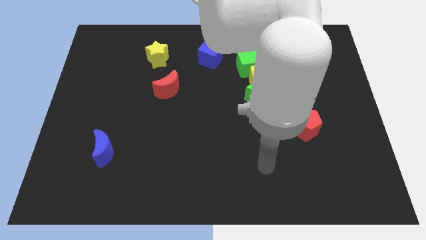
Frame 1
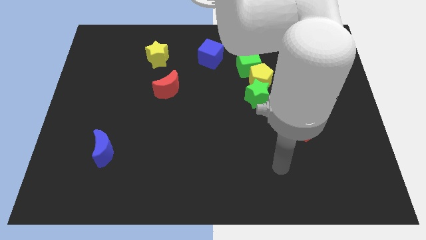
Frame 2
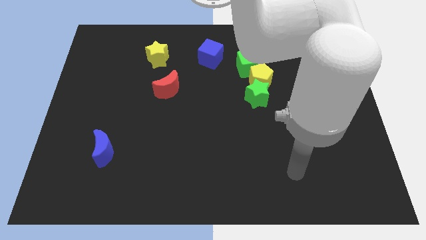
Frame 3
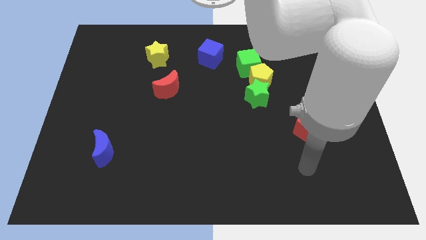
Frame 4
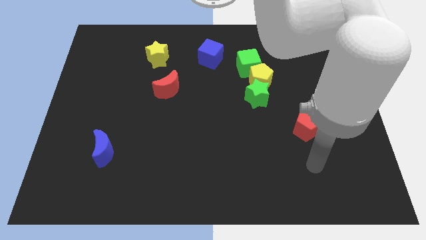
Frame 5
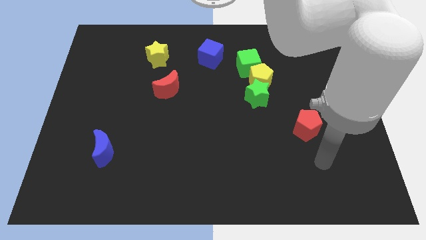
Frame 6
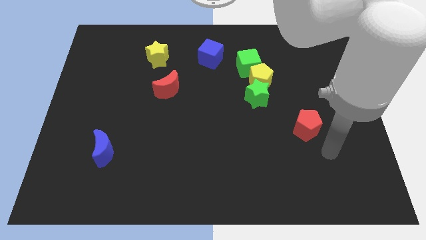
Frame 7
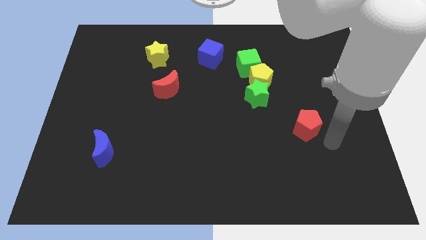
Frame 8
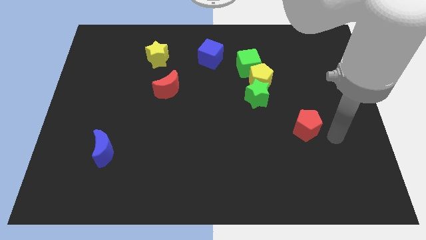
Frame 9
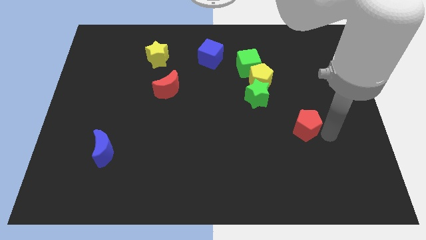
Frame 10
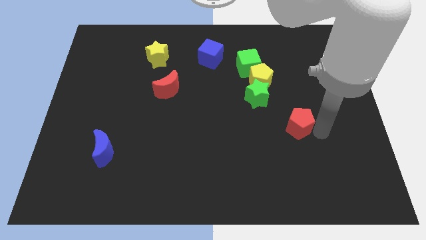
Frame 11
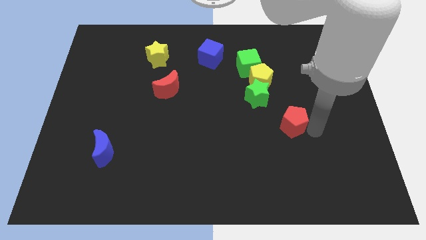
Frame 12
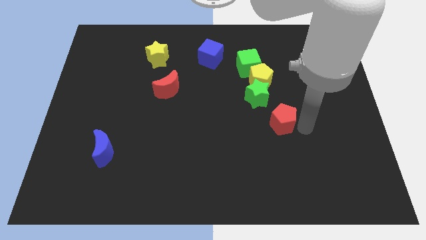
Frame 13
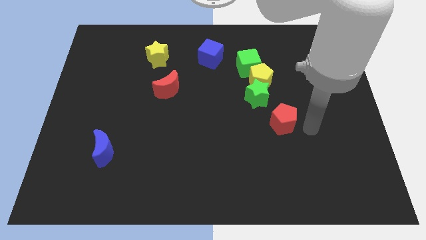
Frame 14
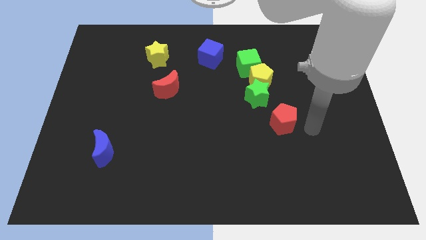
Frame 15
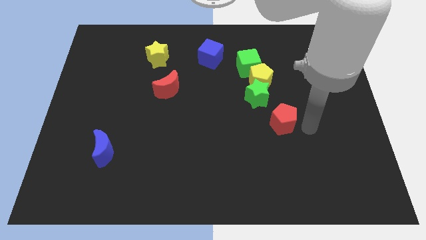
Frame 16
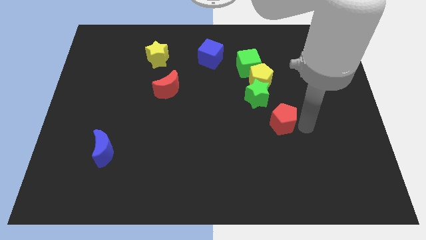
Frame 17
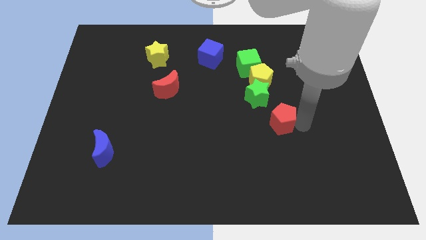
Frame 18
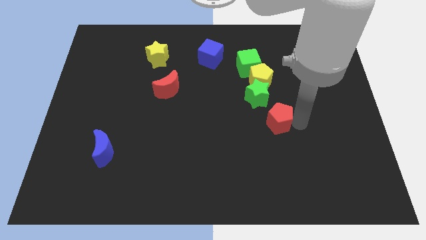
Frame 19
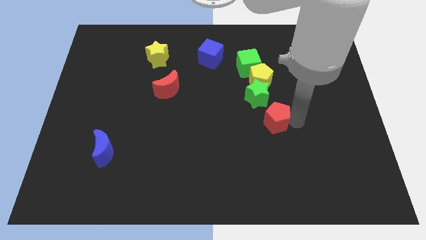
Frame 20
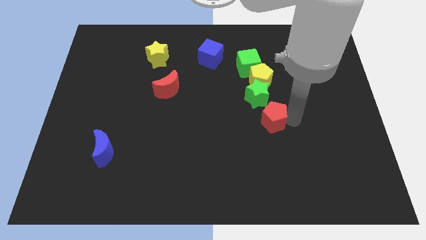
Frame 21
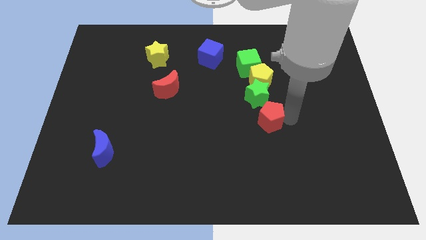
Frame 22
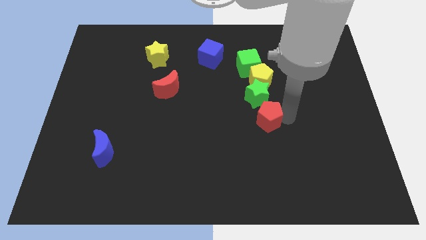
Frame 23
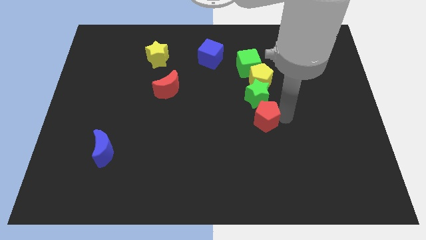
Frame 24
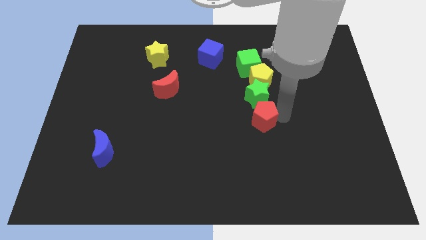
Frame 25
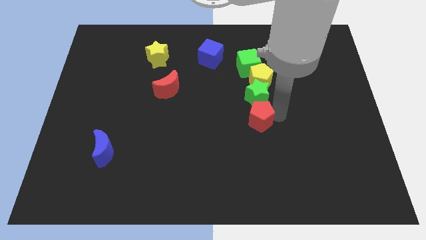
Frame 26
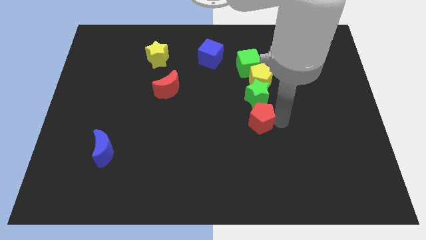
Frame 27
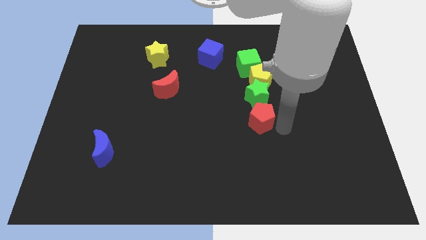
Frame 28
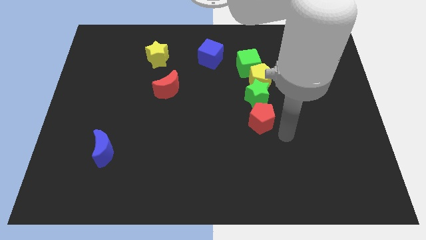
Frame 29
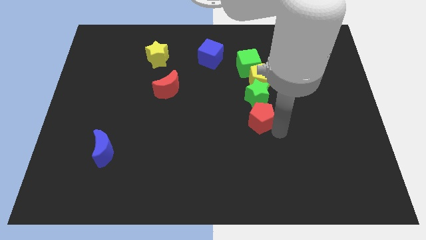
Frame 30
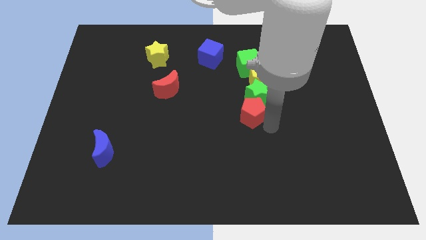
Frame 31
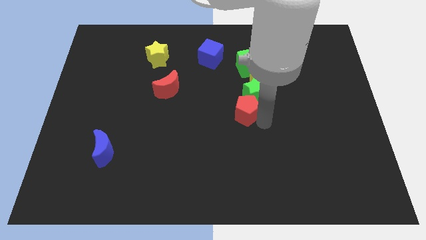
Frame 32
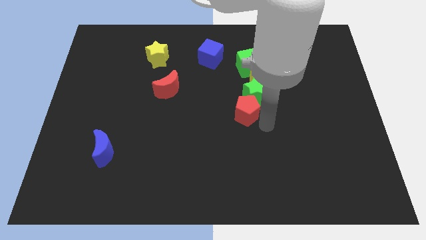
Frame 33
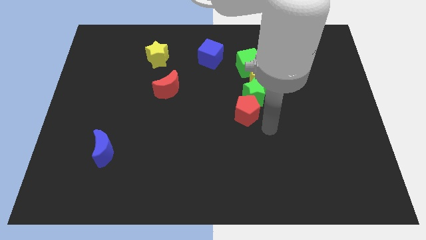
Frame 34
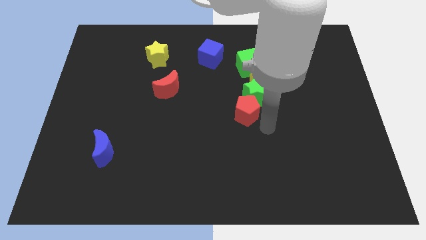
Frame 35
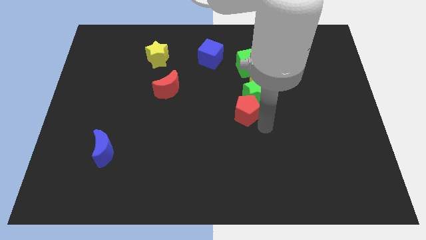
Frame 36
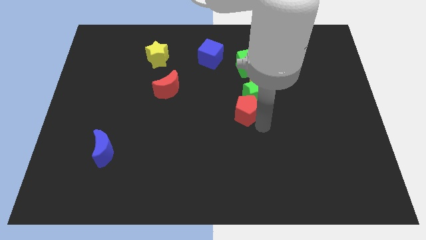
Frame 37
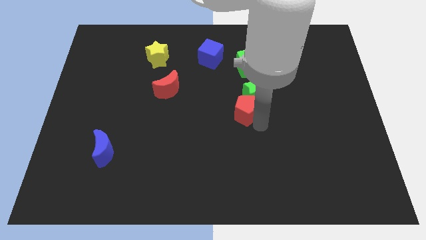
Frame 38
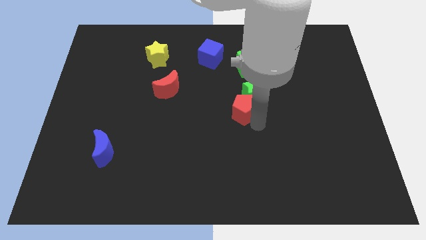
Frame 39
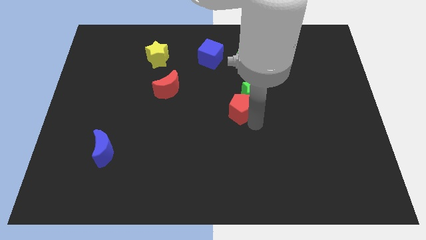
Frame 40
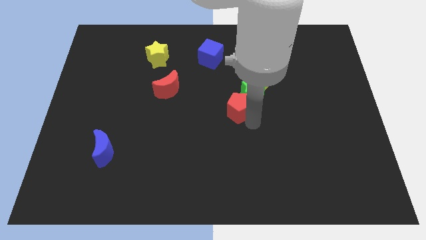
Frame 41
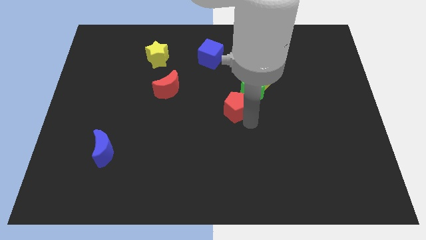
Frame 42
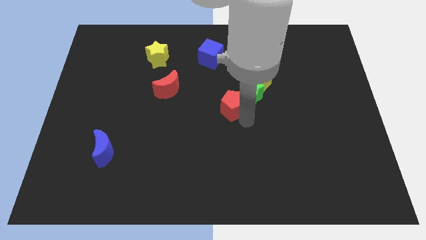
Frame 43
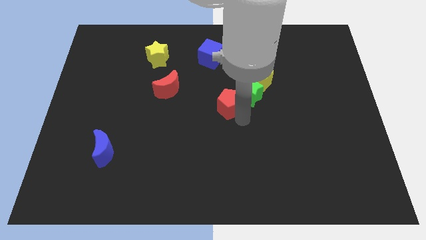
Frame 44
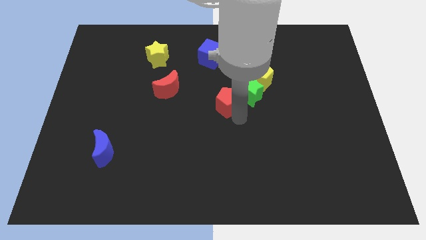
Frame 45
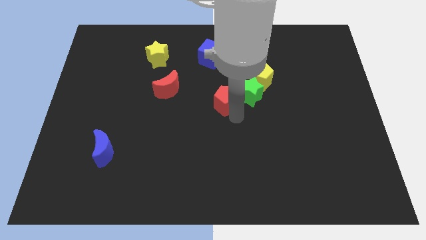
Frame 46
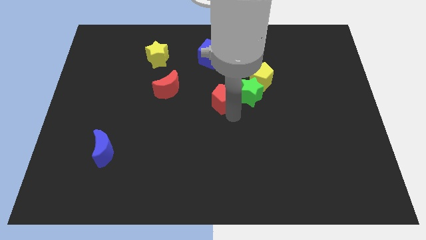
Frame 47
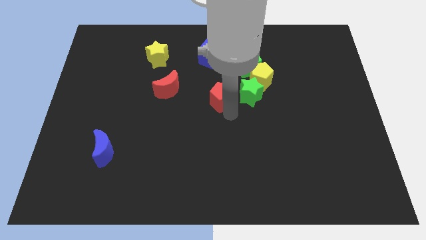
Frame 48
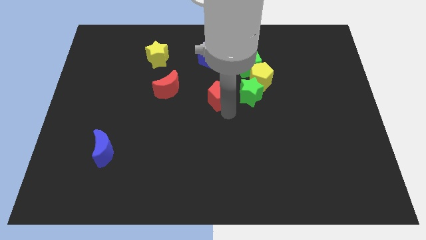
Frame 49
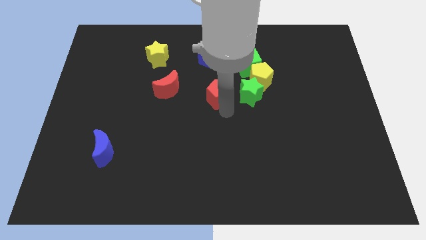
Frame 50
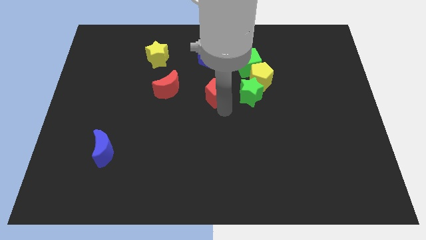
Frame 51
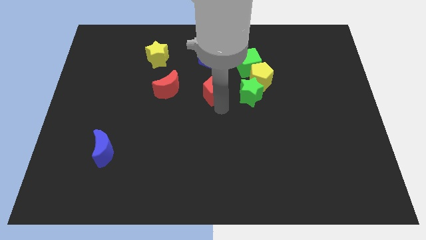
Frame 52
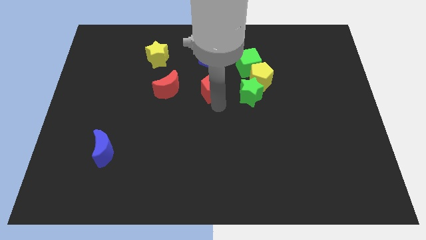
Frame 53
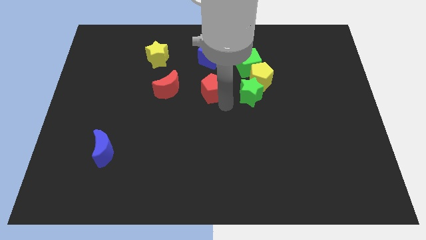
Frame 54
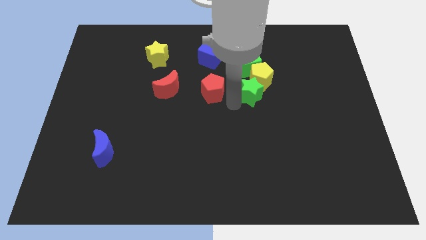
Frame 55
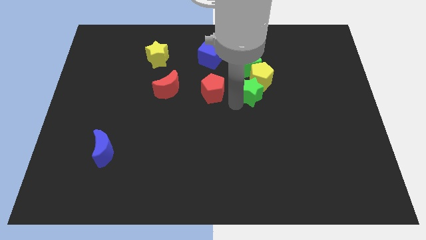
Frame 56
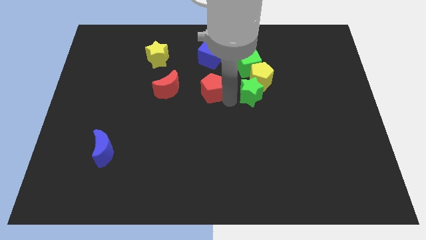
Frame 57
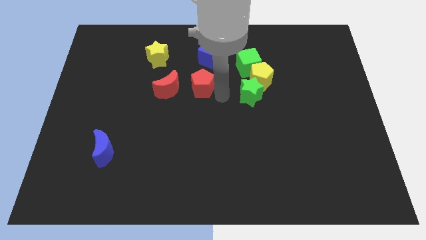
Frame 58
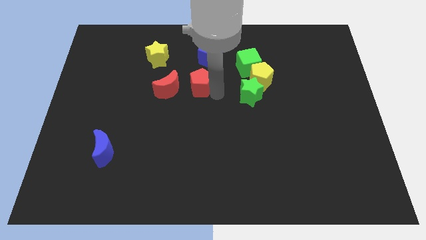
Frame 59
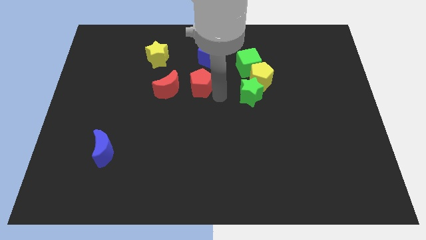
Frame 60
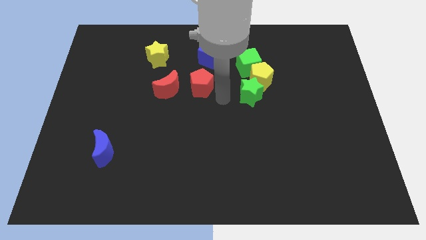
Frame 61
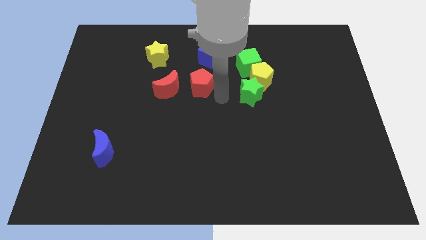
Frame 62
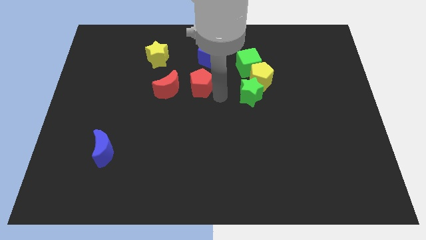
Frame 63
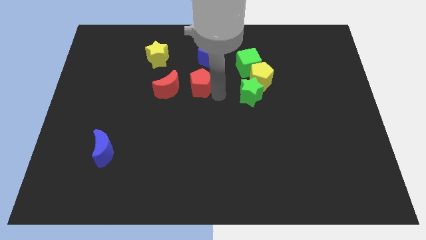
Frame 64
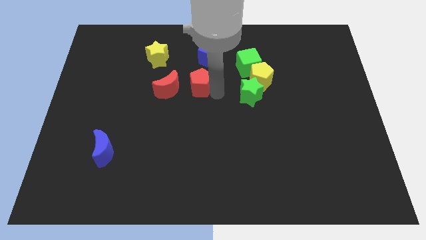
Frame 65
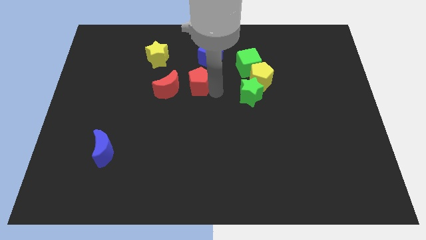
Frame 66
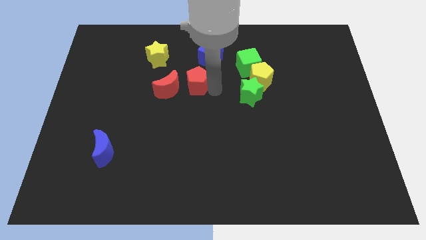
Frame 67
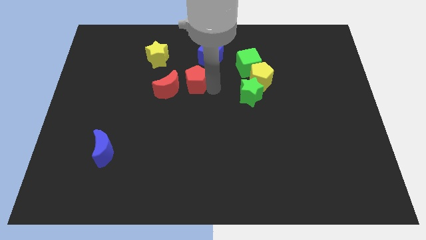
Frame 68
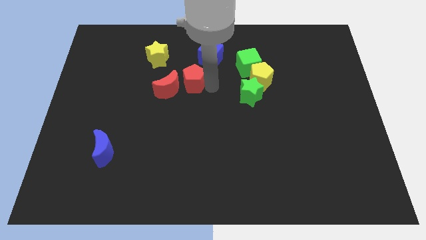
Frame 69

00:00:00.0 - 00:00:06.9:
slide the red pentagon to the bottom right side of the yellow star

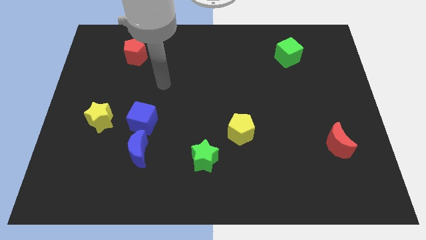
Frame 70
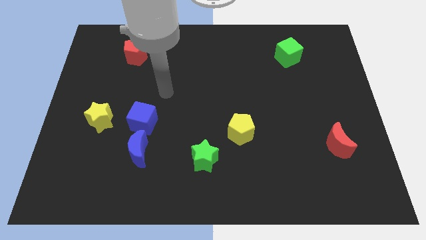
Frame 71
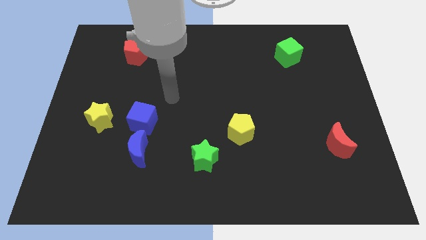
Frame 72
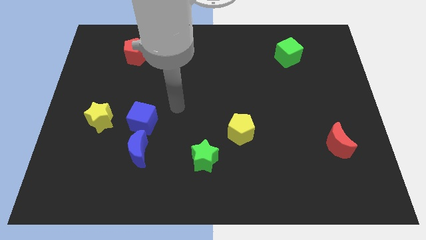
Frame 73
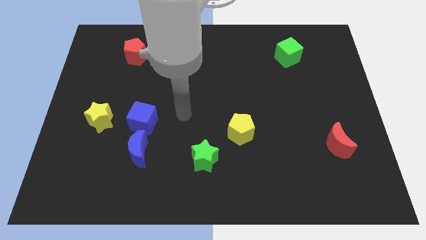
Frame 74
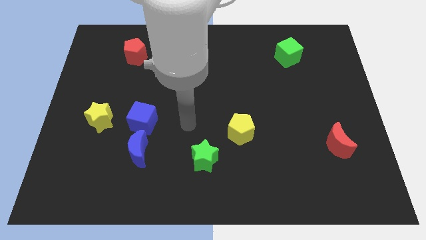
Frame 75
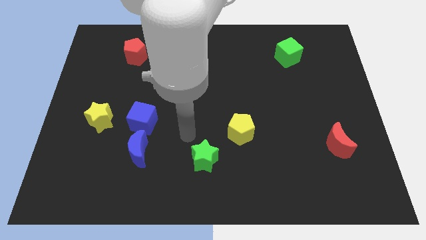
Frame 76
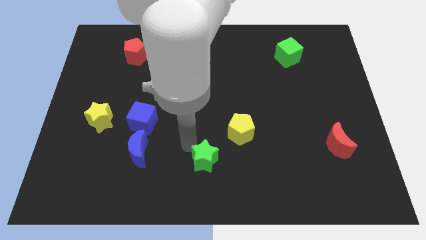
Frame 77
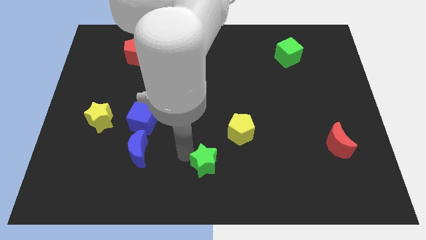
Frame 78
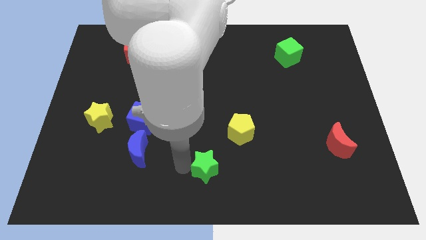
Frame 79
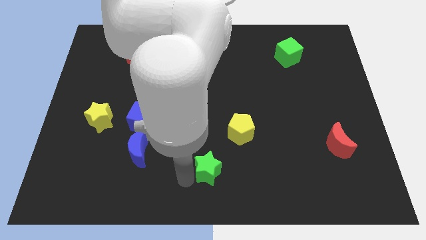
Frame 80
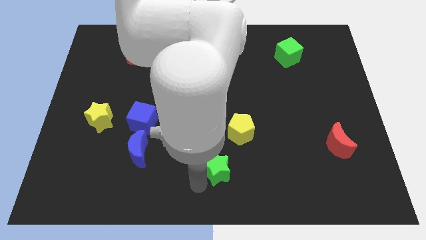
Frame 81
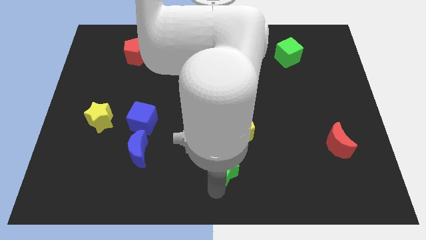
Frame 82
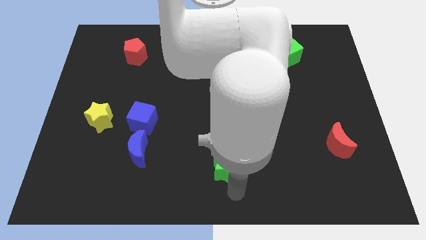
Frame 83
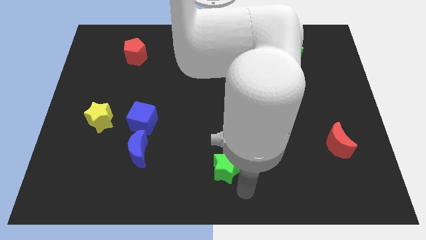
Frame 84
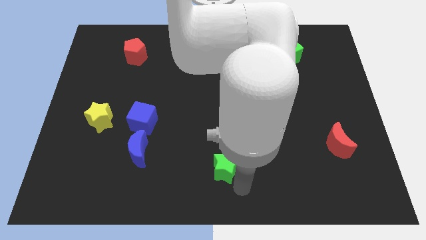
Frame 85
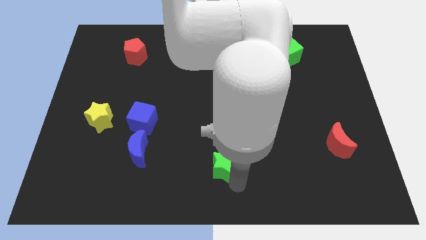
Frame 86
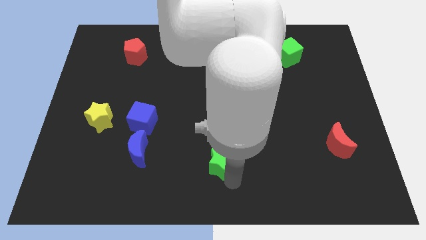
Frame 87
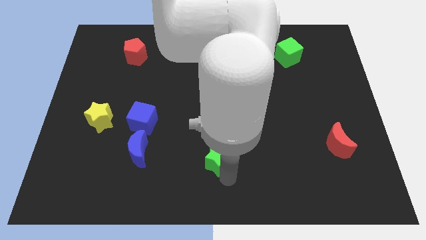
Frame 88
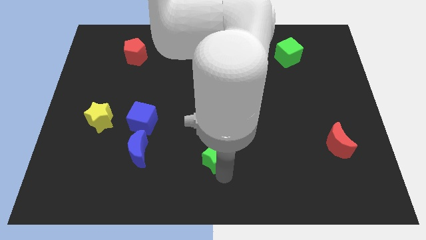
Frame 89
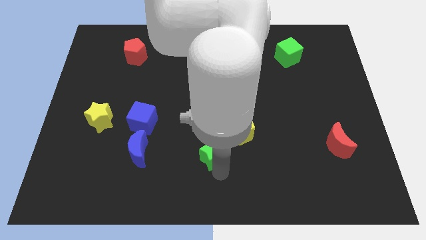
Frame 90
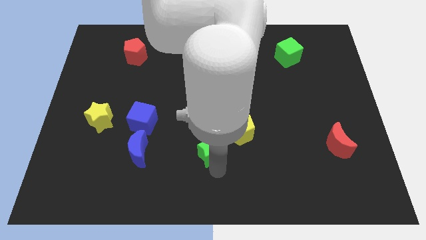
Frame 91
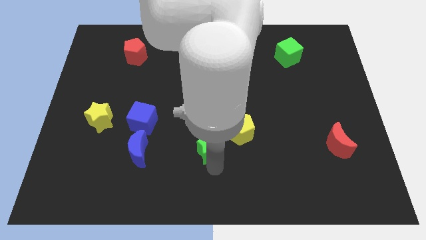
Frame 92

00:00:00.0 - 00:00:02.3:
push the green star left of the yellow pentagon
